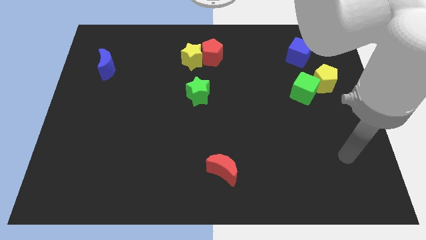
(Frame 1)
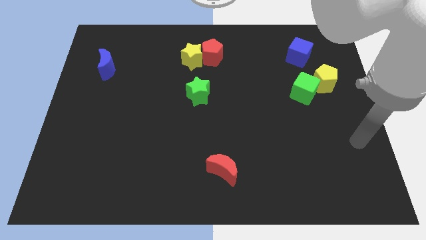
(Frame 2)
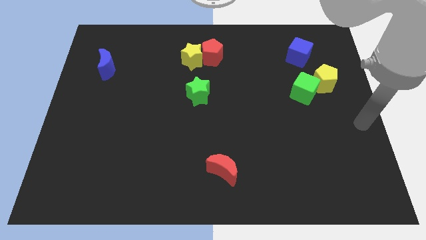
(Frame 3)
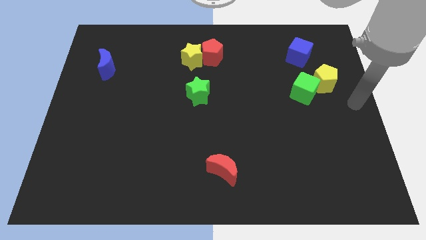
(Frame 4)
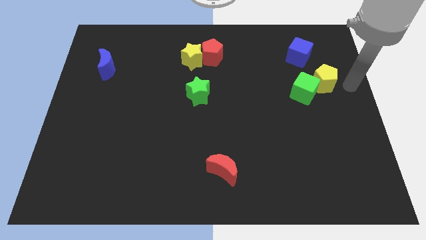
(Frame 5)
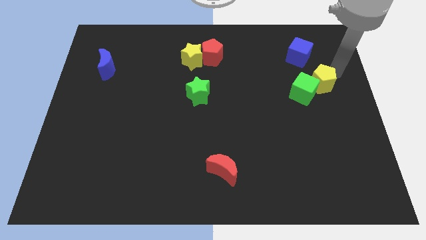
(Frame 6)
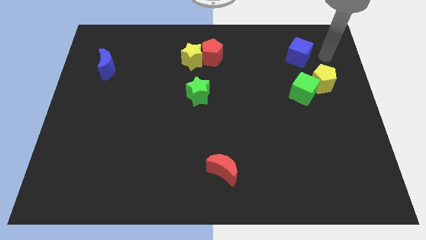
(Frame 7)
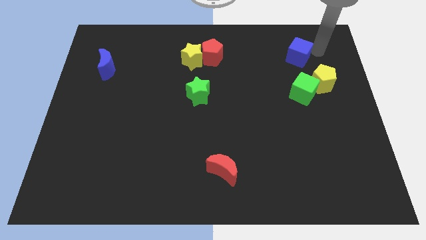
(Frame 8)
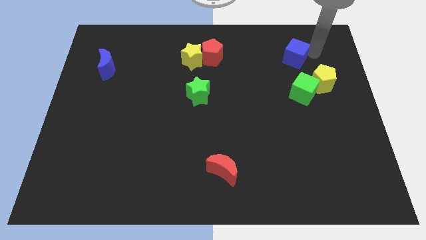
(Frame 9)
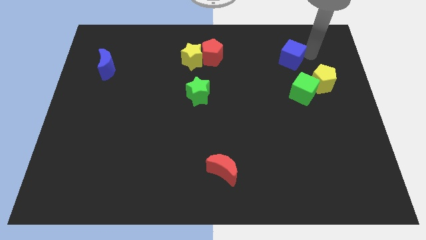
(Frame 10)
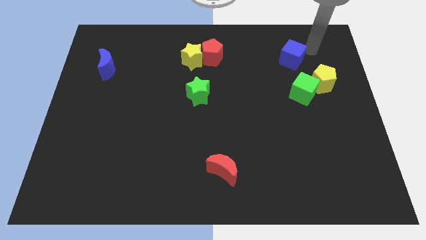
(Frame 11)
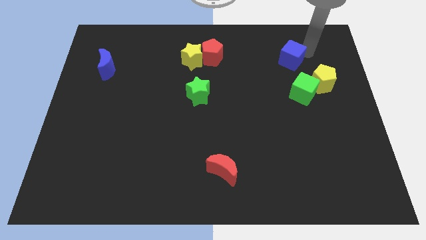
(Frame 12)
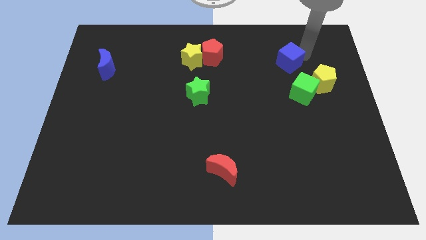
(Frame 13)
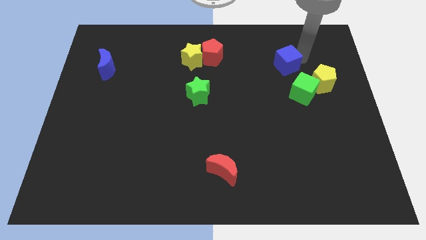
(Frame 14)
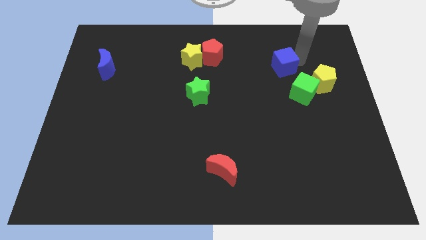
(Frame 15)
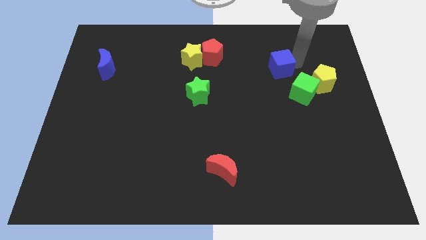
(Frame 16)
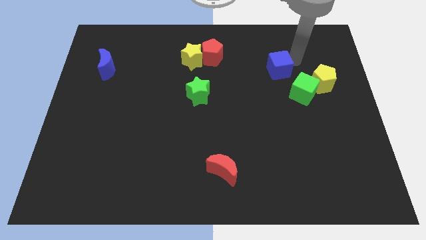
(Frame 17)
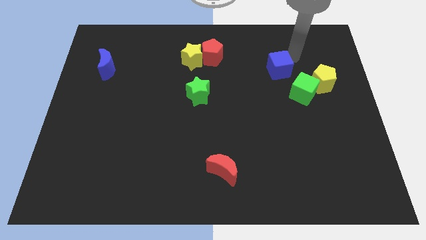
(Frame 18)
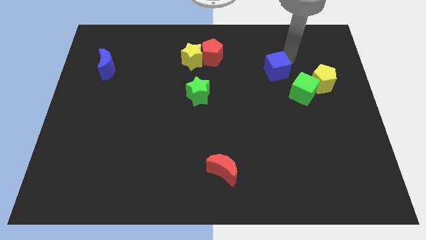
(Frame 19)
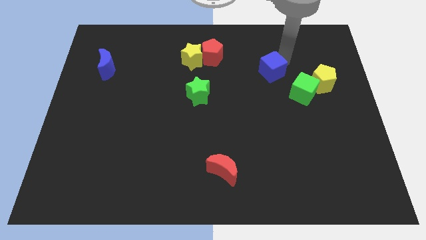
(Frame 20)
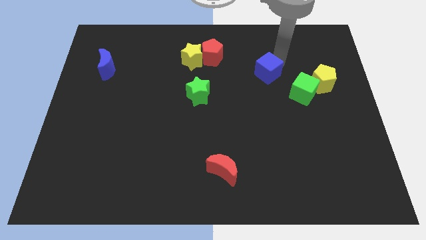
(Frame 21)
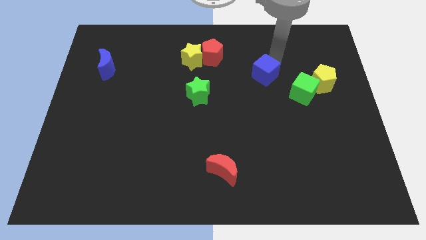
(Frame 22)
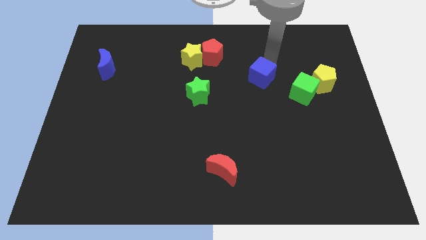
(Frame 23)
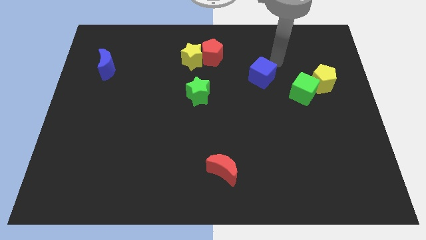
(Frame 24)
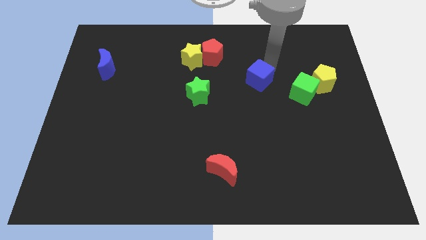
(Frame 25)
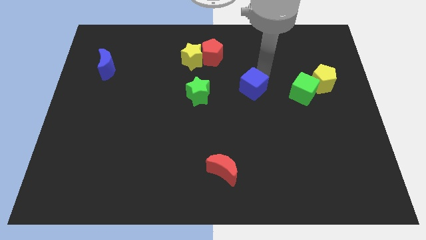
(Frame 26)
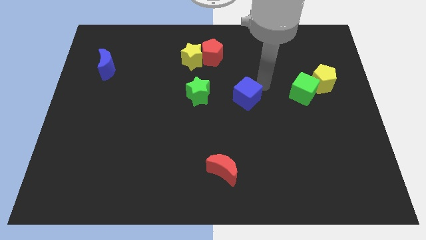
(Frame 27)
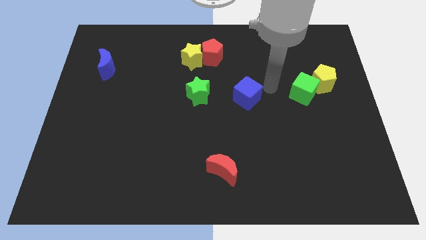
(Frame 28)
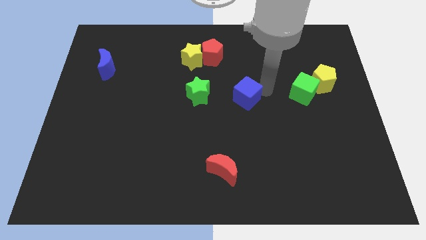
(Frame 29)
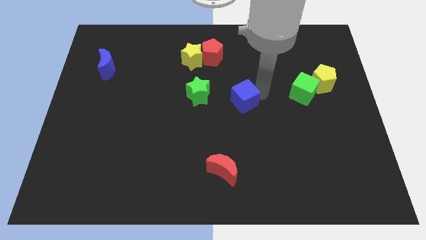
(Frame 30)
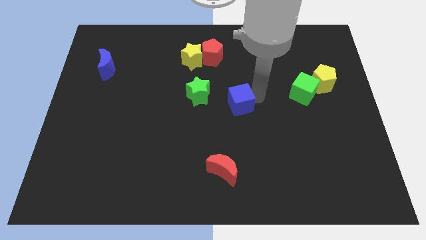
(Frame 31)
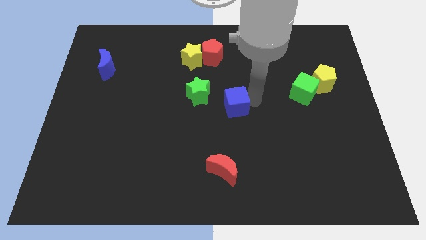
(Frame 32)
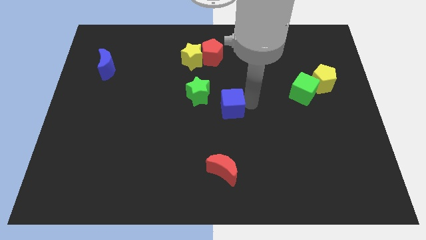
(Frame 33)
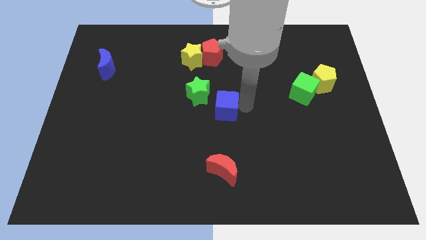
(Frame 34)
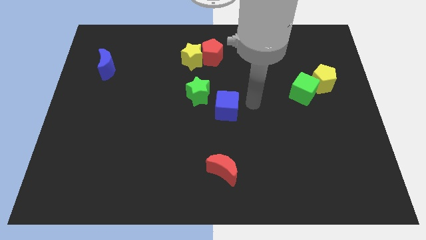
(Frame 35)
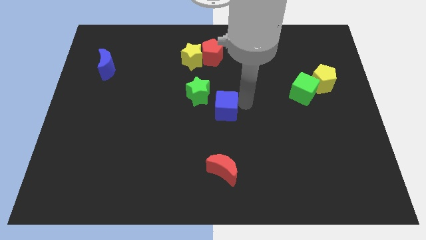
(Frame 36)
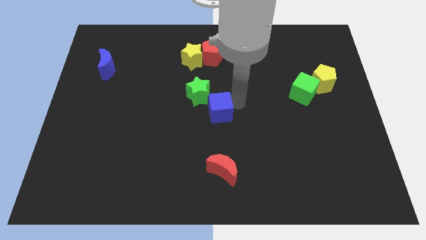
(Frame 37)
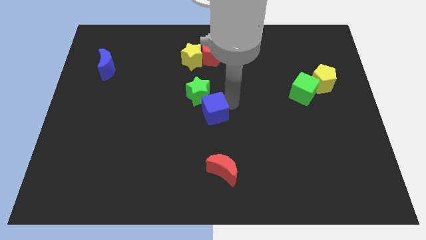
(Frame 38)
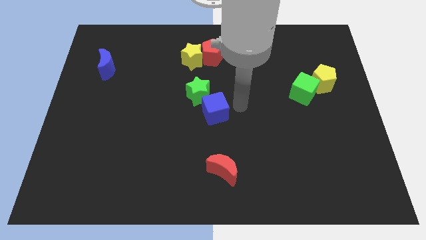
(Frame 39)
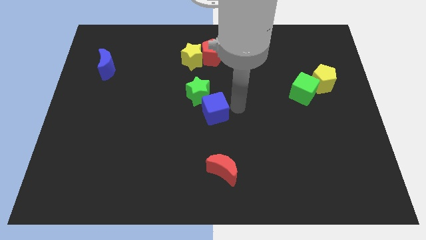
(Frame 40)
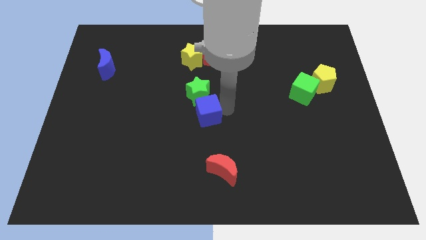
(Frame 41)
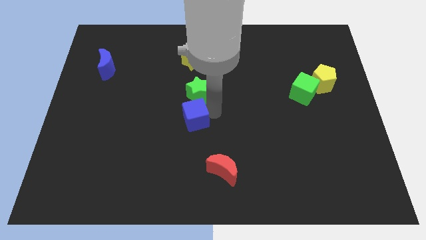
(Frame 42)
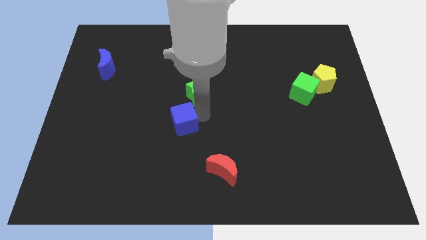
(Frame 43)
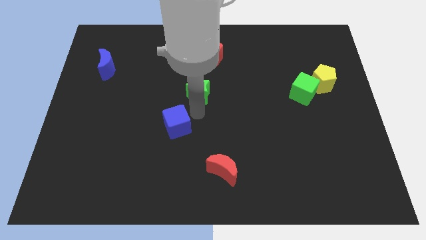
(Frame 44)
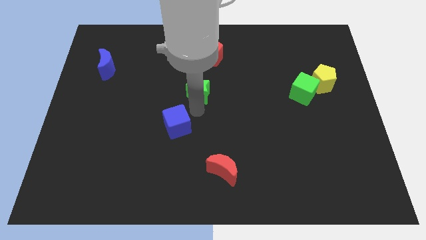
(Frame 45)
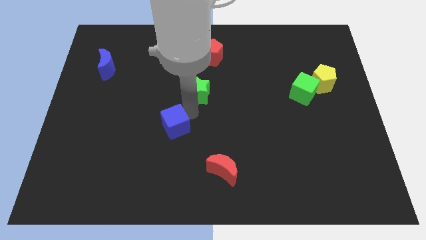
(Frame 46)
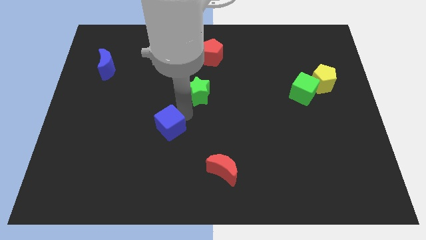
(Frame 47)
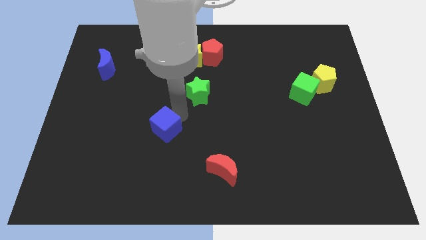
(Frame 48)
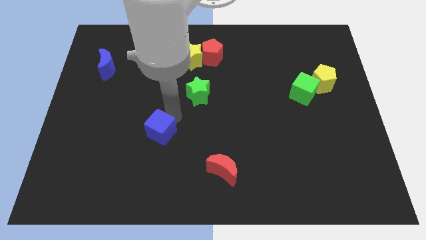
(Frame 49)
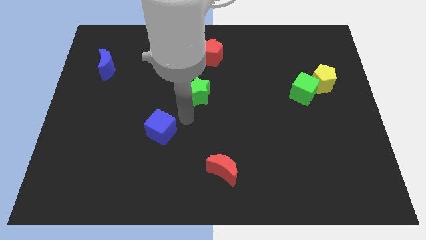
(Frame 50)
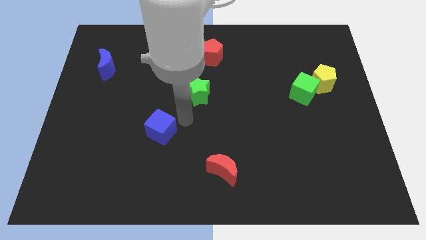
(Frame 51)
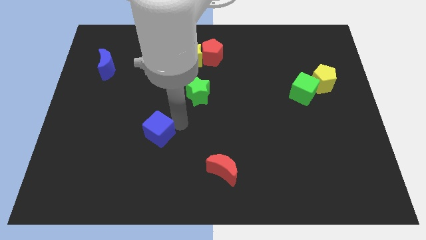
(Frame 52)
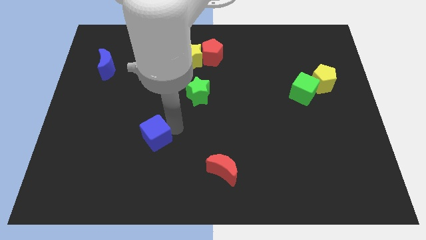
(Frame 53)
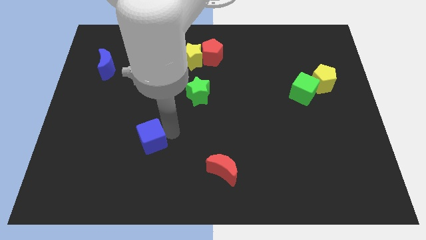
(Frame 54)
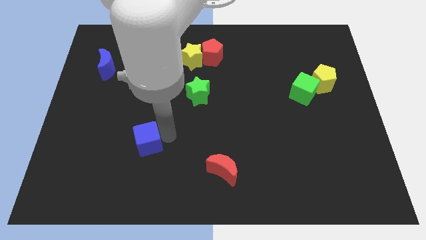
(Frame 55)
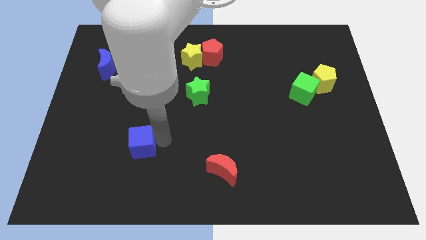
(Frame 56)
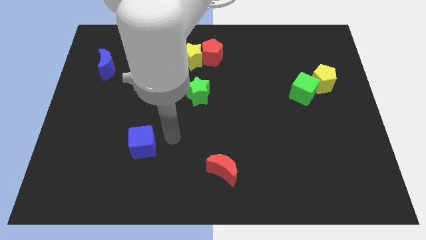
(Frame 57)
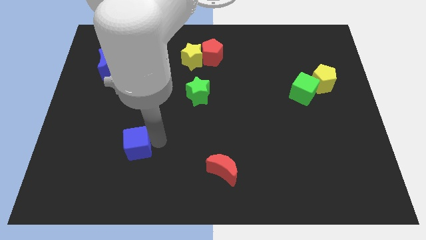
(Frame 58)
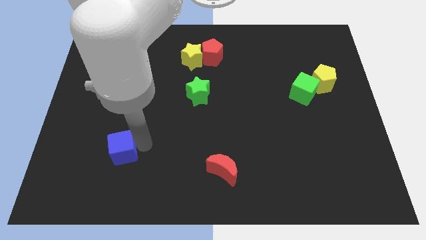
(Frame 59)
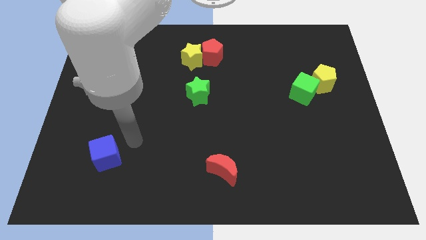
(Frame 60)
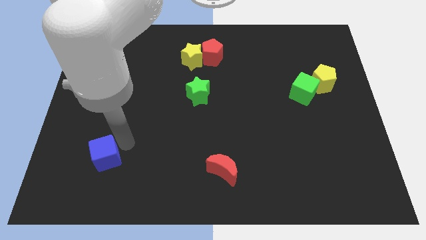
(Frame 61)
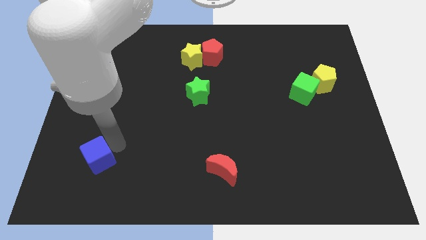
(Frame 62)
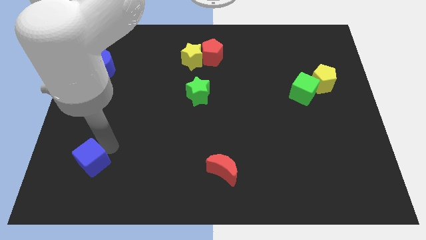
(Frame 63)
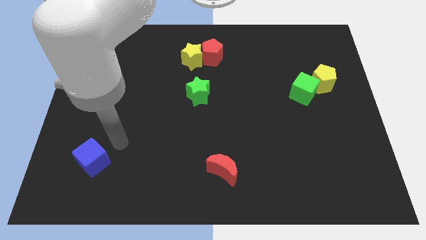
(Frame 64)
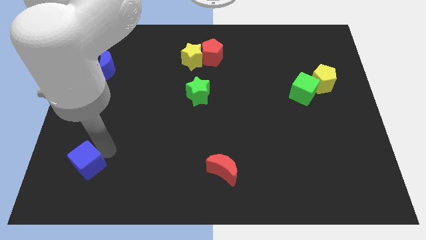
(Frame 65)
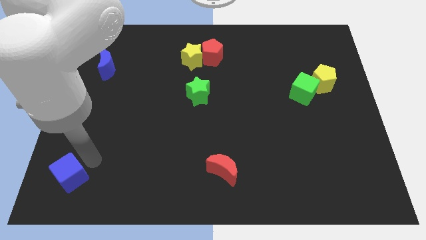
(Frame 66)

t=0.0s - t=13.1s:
slide the blue cube to the lower left corner
